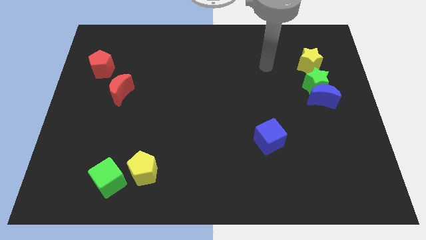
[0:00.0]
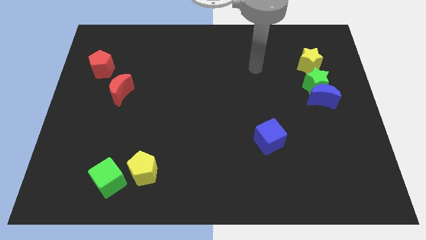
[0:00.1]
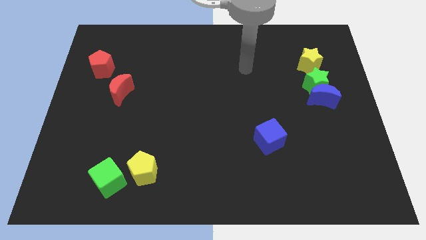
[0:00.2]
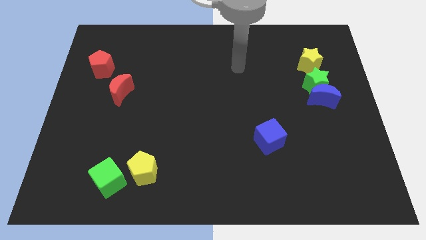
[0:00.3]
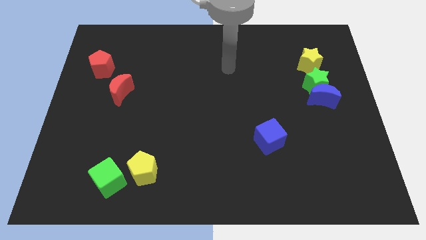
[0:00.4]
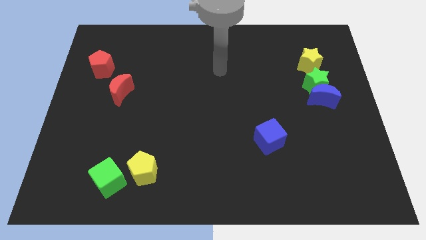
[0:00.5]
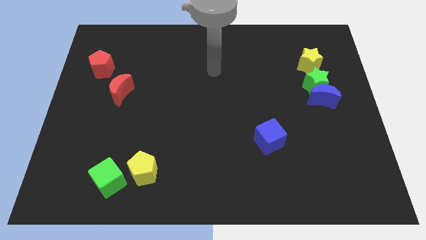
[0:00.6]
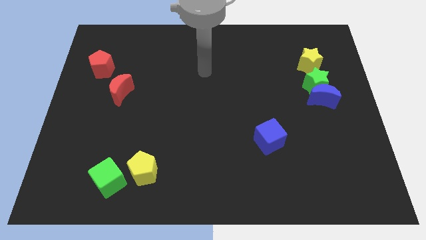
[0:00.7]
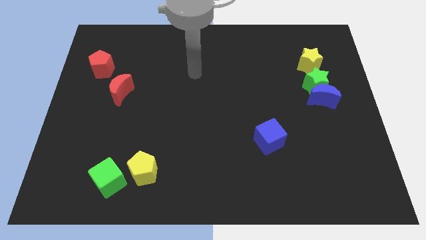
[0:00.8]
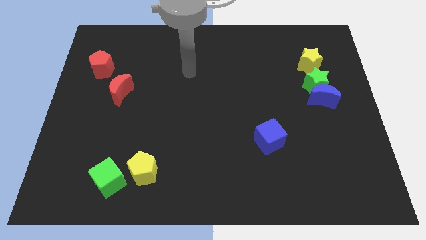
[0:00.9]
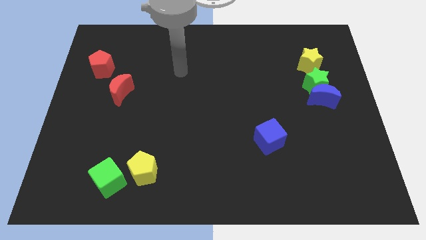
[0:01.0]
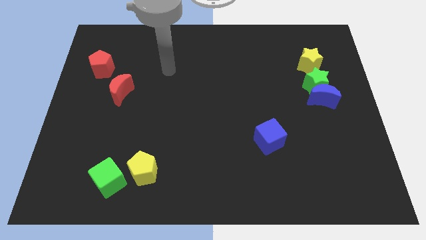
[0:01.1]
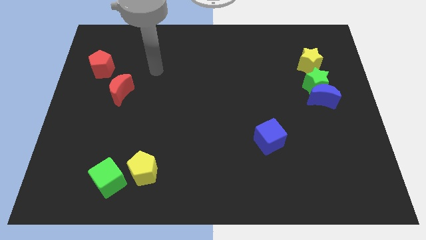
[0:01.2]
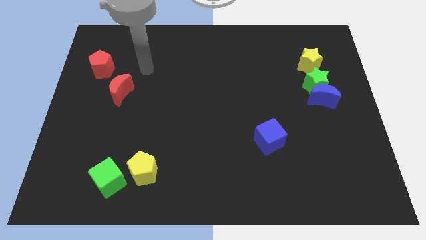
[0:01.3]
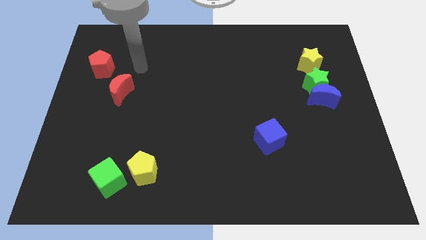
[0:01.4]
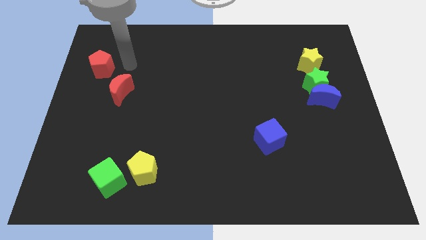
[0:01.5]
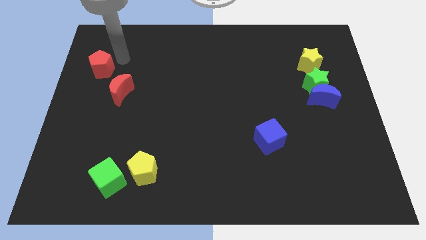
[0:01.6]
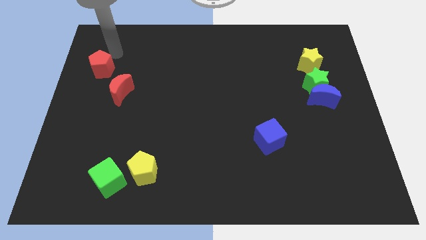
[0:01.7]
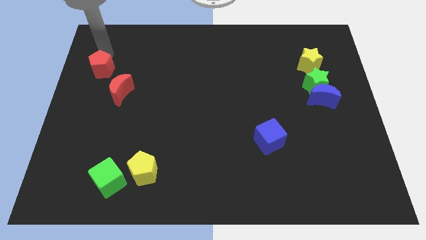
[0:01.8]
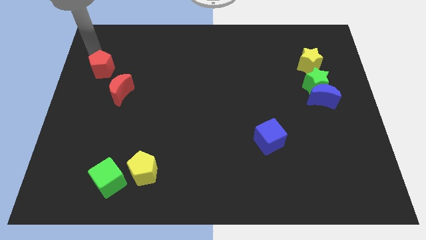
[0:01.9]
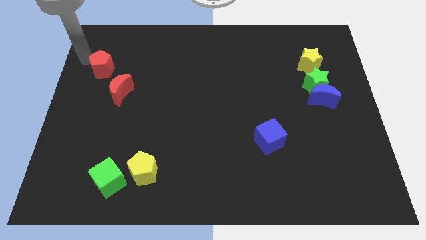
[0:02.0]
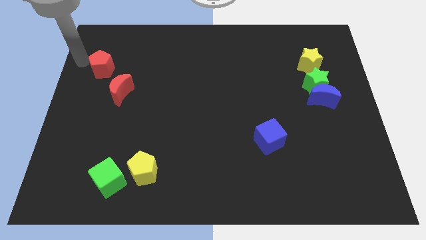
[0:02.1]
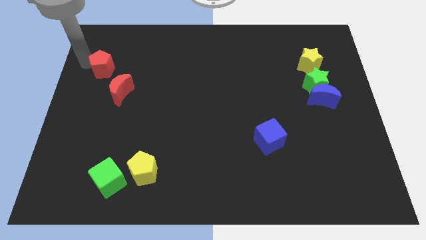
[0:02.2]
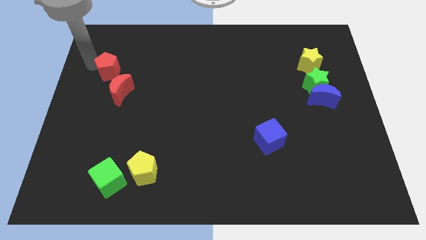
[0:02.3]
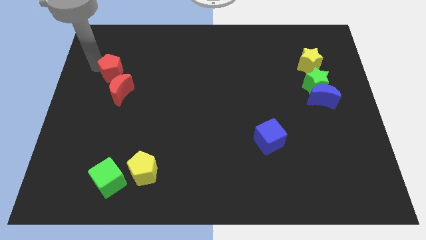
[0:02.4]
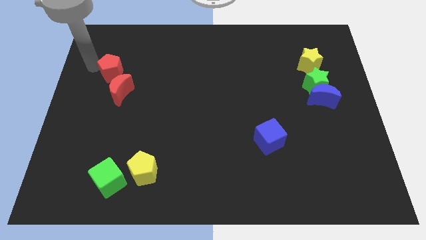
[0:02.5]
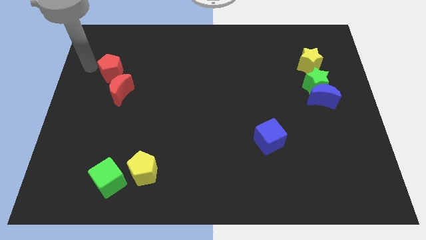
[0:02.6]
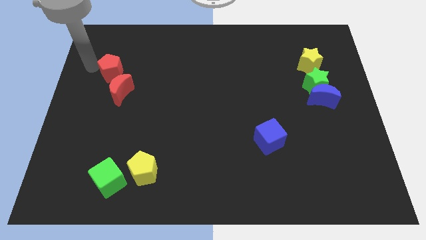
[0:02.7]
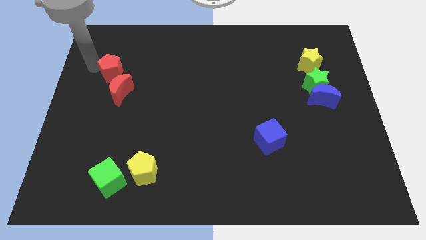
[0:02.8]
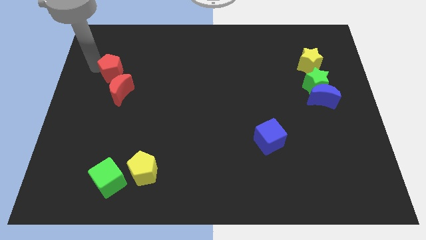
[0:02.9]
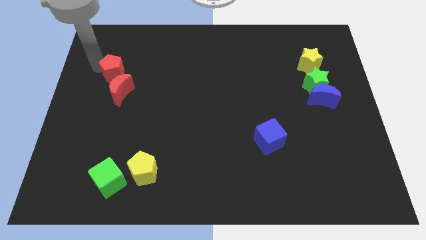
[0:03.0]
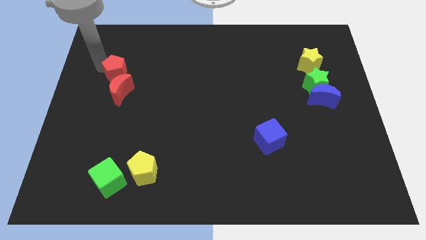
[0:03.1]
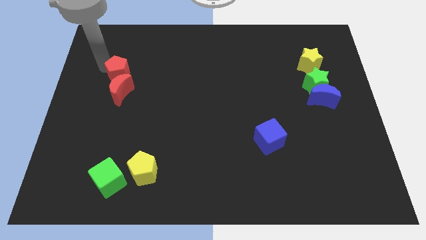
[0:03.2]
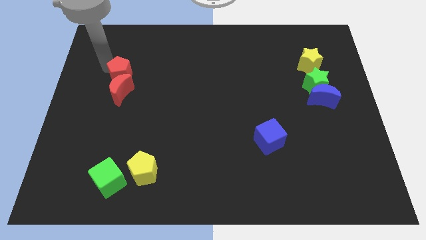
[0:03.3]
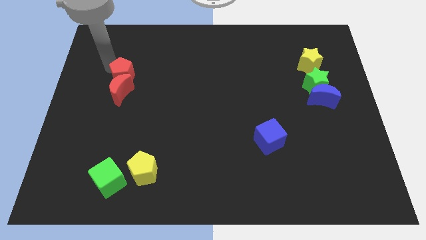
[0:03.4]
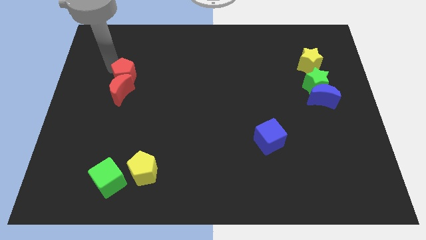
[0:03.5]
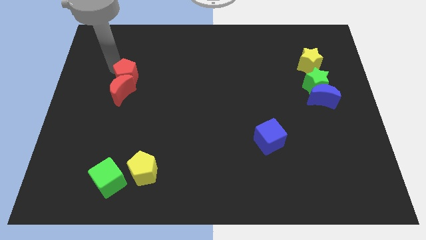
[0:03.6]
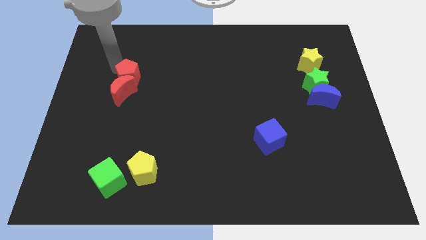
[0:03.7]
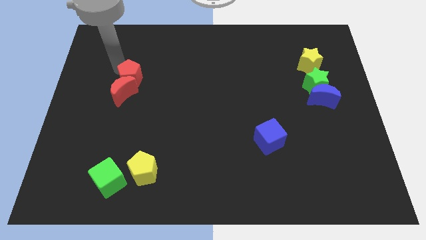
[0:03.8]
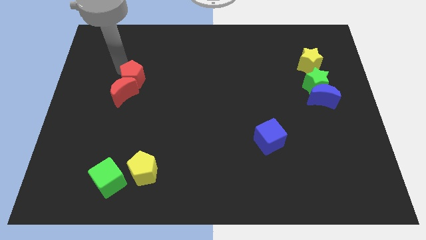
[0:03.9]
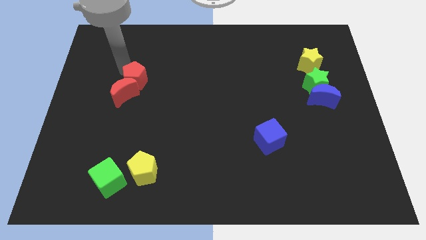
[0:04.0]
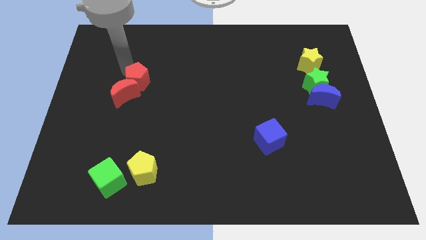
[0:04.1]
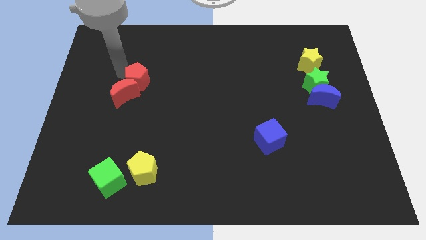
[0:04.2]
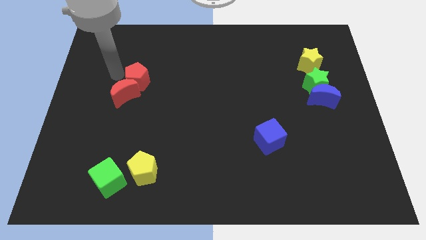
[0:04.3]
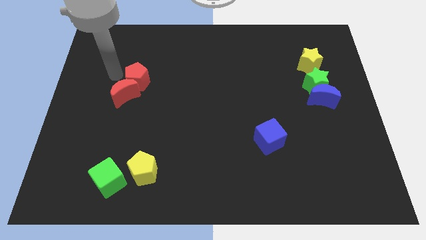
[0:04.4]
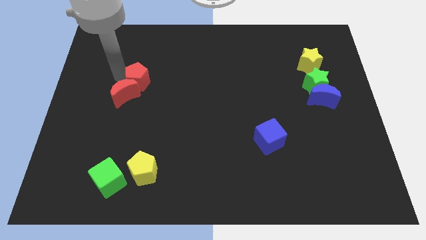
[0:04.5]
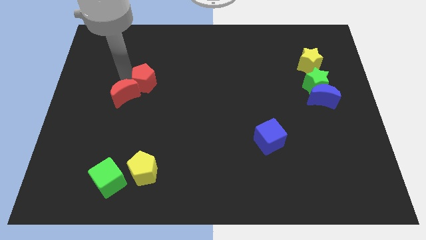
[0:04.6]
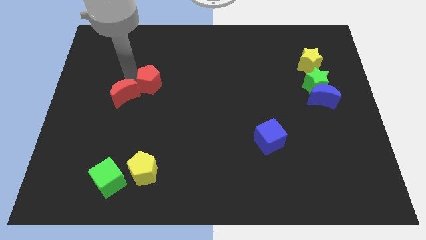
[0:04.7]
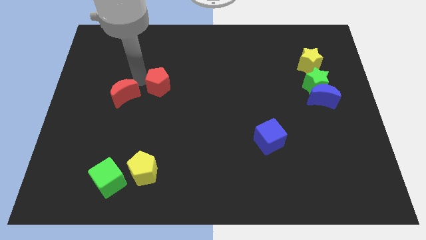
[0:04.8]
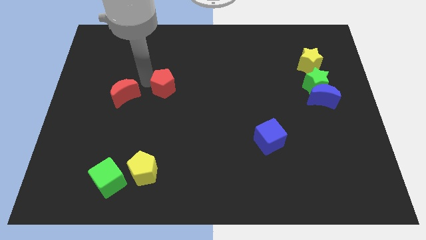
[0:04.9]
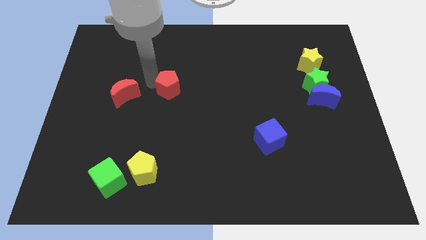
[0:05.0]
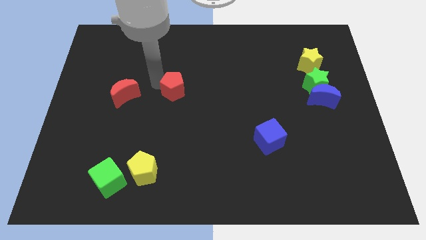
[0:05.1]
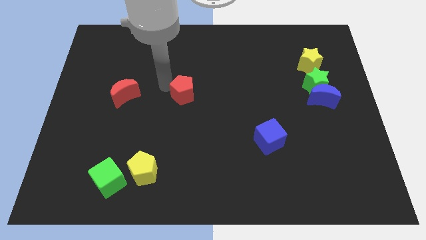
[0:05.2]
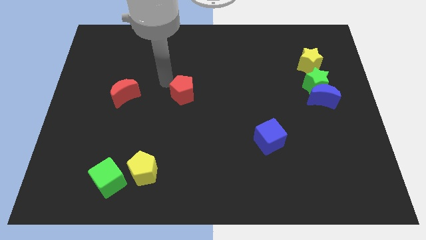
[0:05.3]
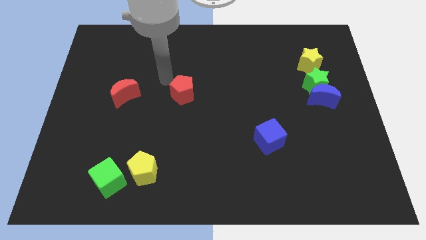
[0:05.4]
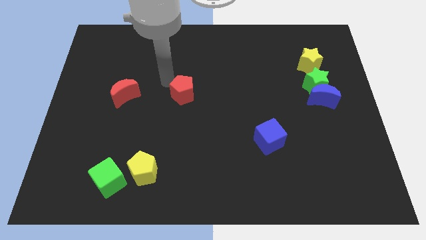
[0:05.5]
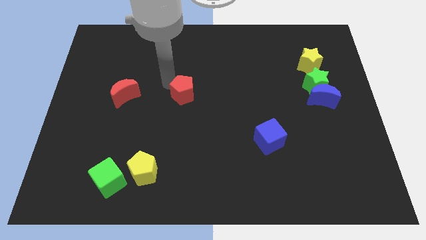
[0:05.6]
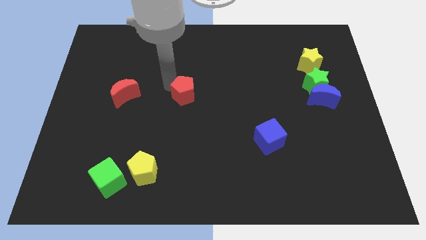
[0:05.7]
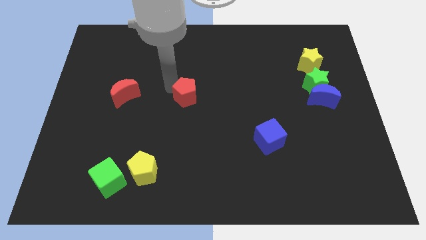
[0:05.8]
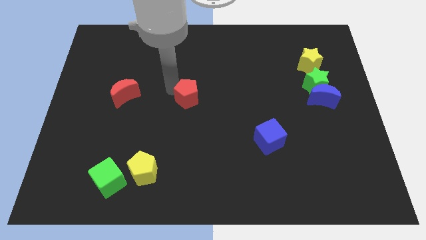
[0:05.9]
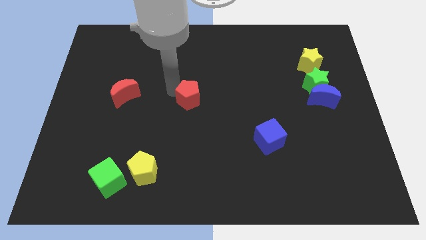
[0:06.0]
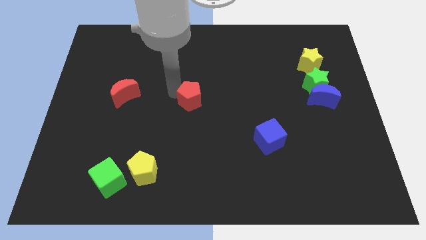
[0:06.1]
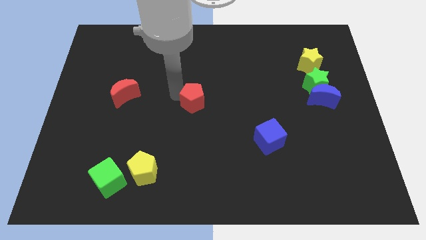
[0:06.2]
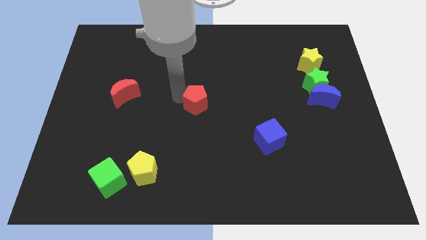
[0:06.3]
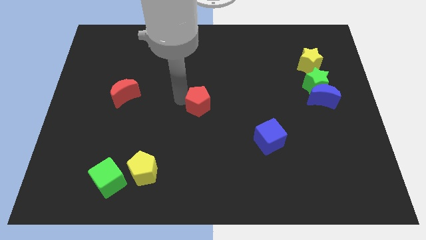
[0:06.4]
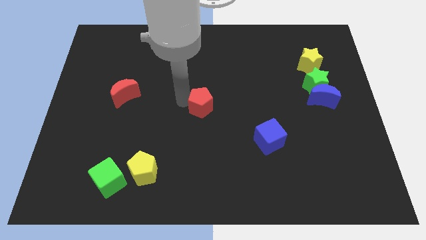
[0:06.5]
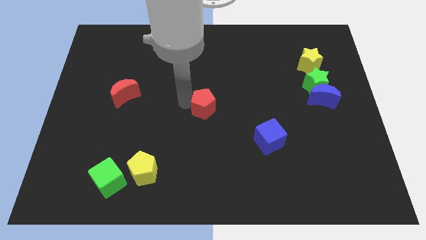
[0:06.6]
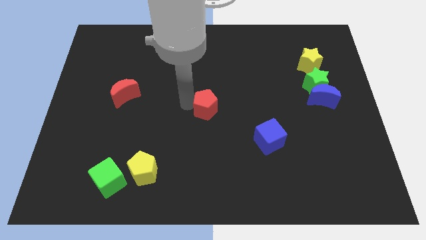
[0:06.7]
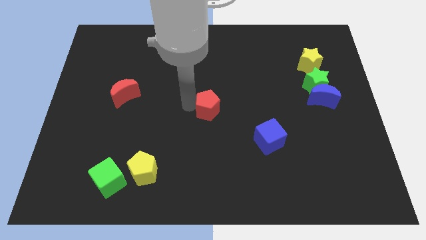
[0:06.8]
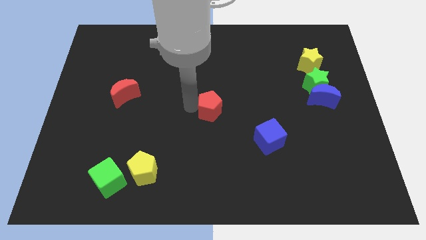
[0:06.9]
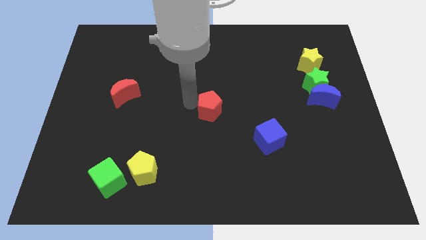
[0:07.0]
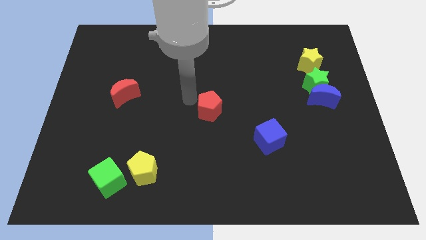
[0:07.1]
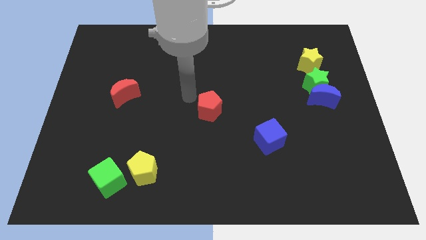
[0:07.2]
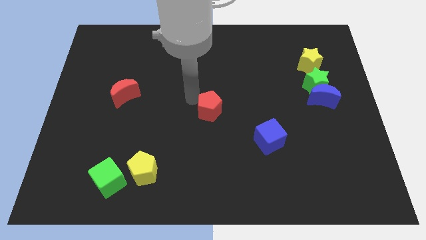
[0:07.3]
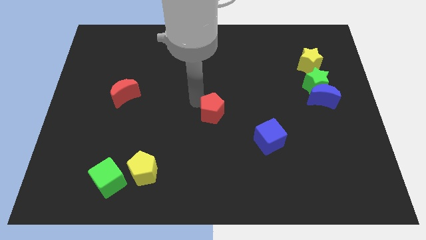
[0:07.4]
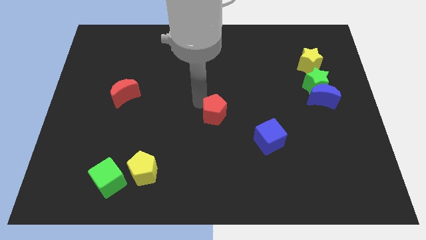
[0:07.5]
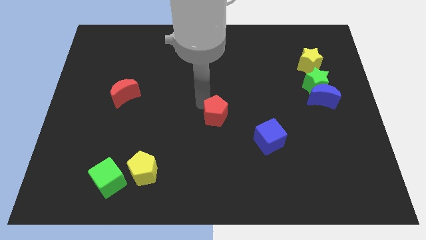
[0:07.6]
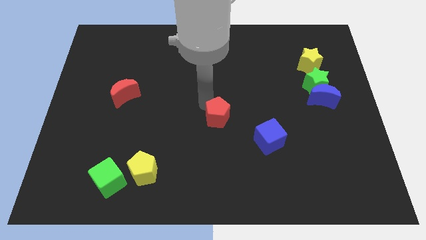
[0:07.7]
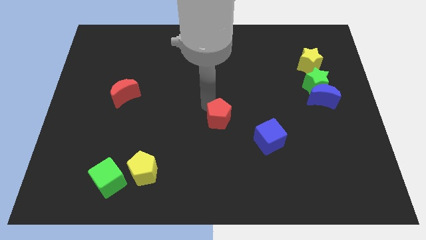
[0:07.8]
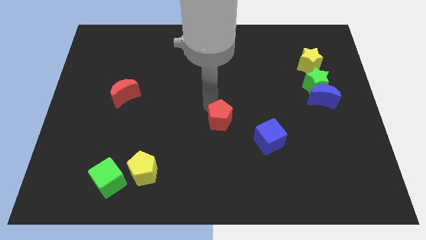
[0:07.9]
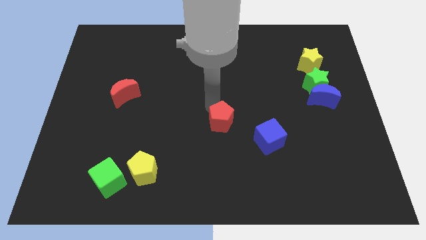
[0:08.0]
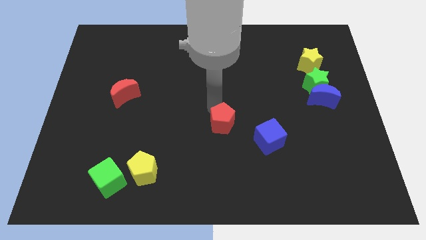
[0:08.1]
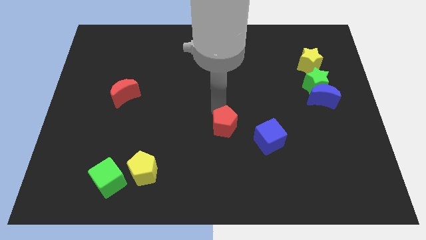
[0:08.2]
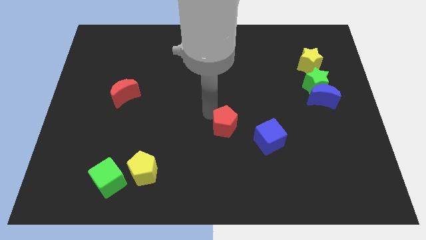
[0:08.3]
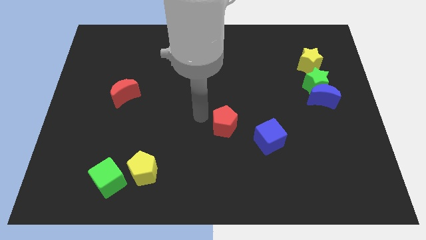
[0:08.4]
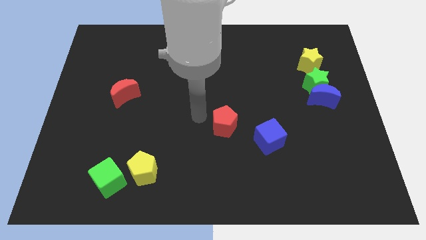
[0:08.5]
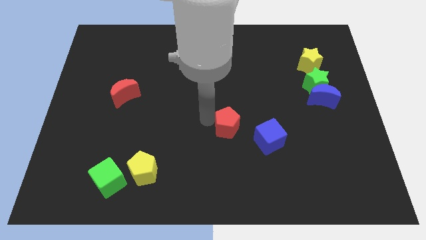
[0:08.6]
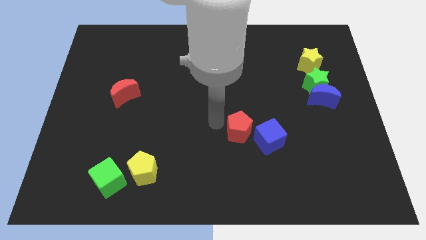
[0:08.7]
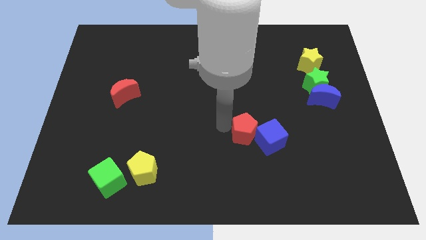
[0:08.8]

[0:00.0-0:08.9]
move the red pentagon to the blue cube
